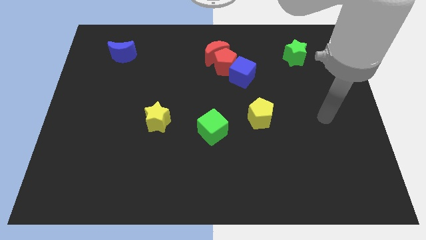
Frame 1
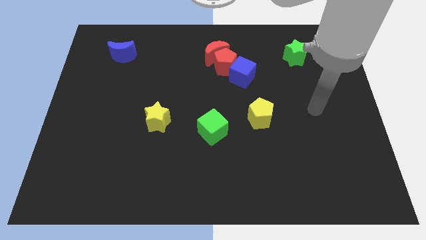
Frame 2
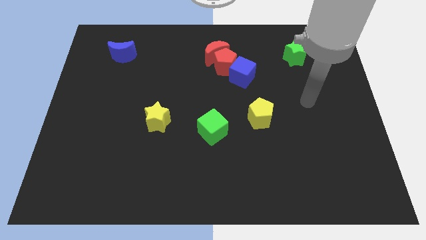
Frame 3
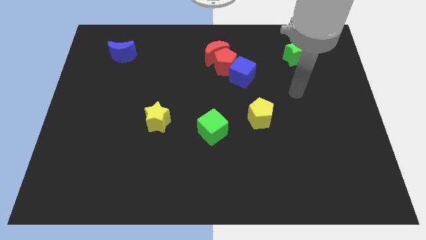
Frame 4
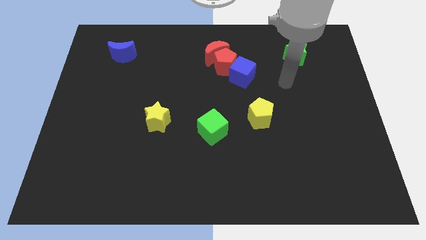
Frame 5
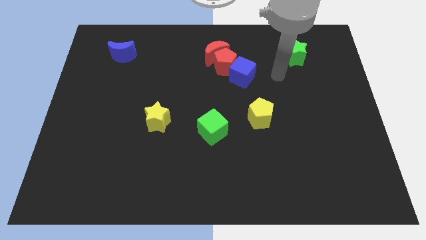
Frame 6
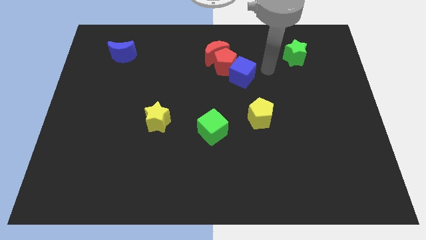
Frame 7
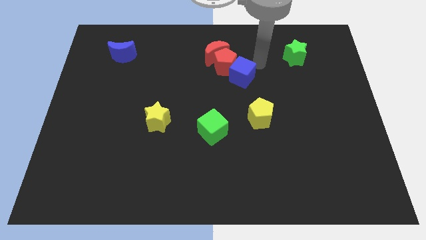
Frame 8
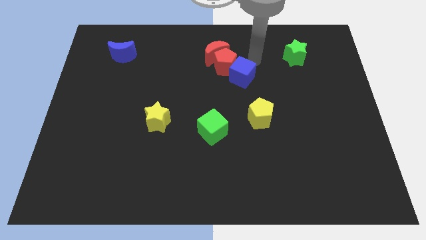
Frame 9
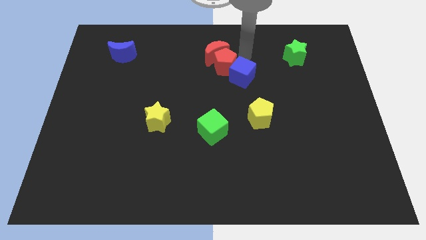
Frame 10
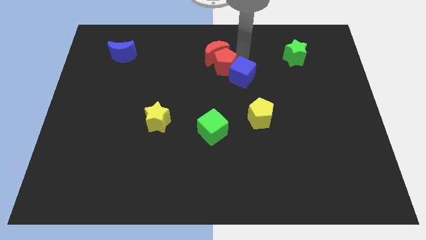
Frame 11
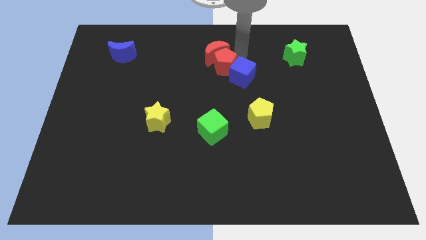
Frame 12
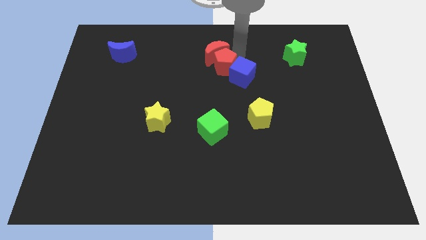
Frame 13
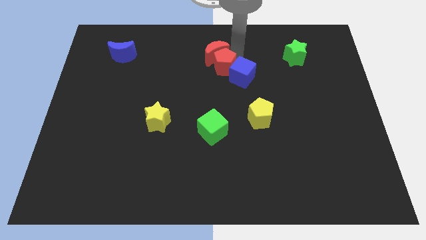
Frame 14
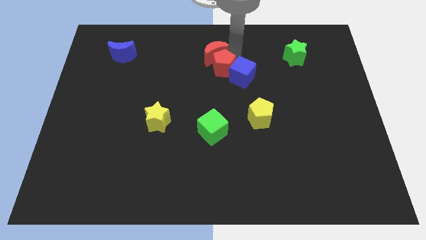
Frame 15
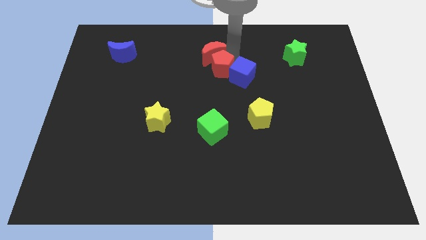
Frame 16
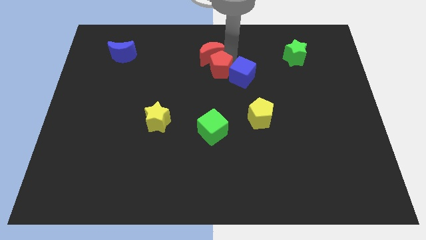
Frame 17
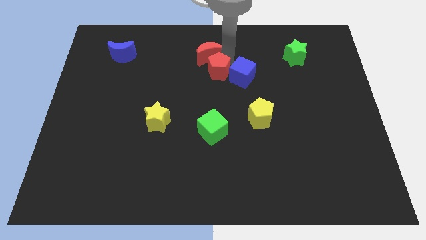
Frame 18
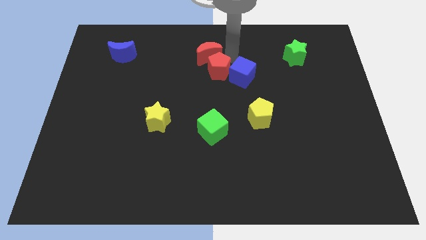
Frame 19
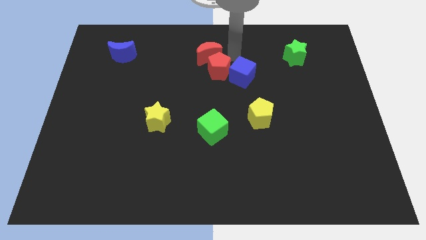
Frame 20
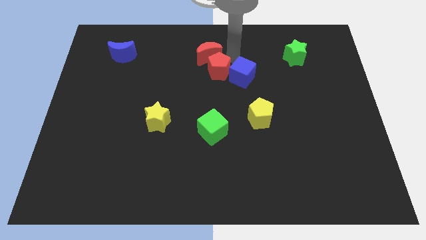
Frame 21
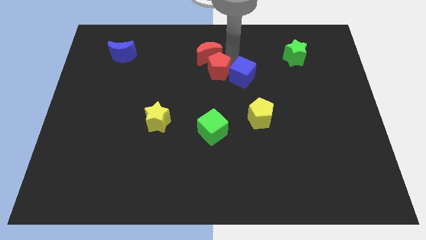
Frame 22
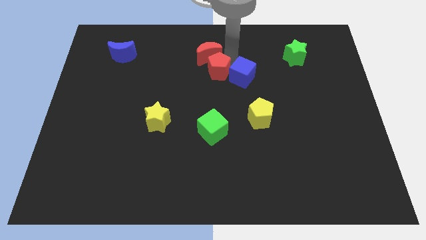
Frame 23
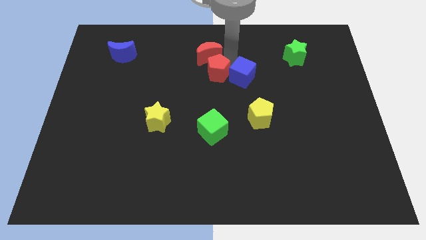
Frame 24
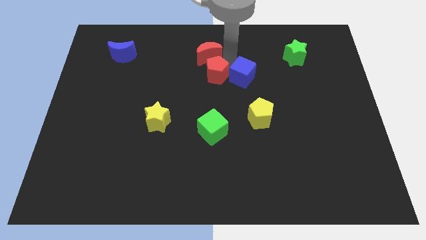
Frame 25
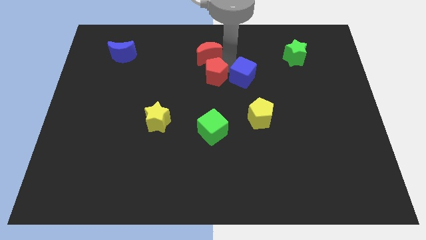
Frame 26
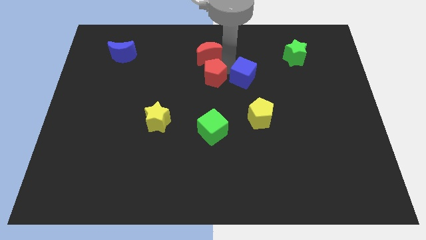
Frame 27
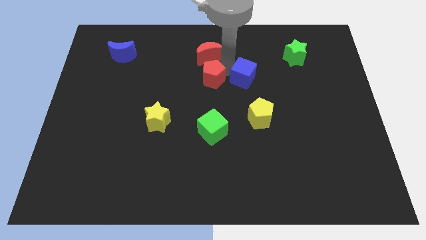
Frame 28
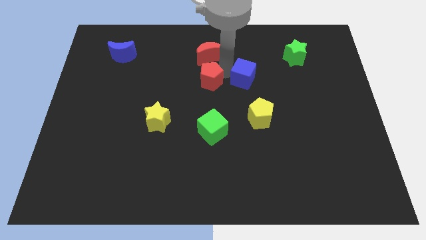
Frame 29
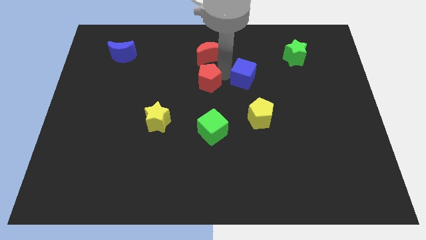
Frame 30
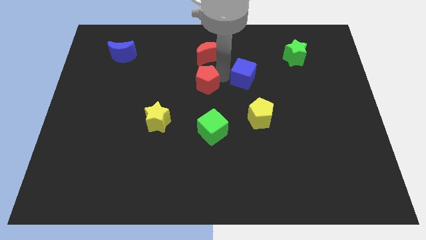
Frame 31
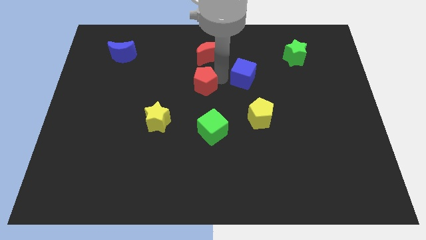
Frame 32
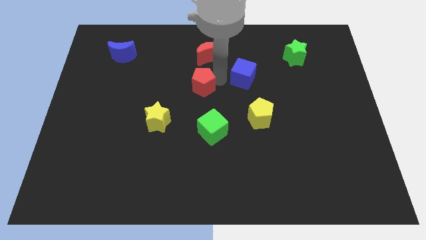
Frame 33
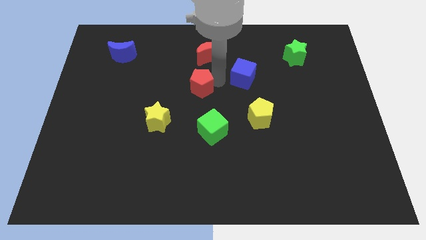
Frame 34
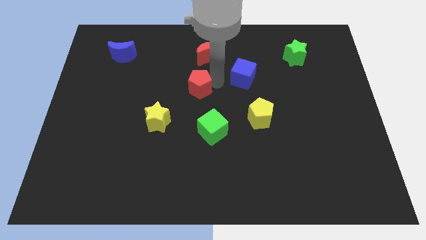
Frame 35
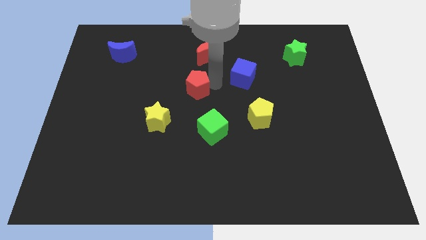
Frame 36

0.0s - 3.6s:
pull the red pentagon apart from the red moon and blue cube

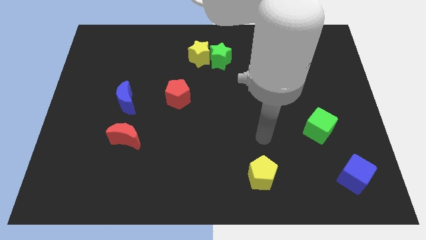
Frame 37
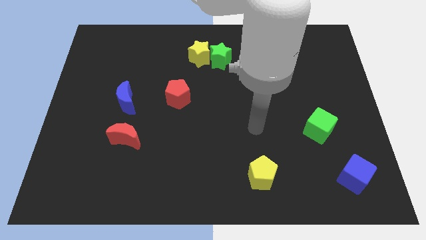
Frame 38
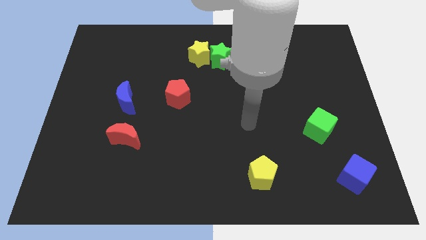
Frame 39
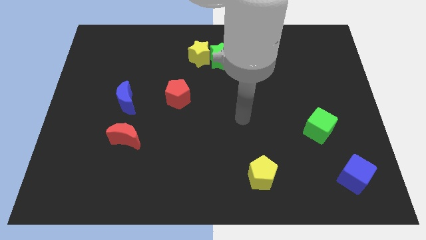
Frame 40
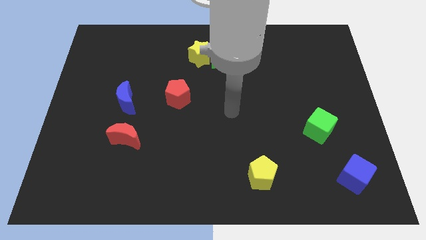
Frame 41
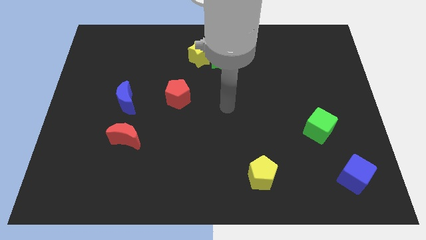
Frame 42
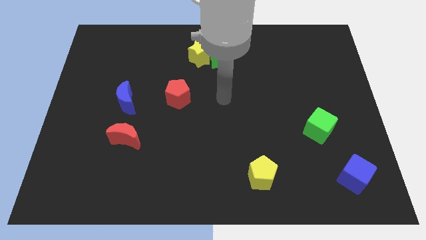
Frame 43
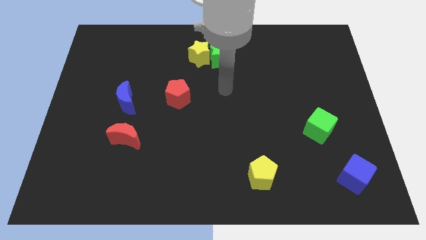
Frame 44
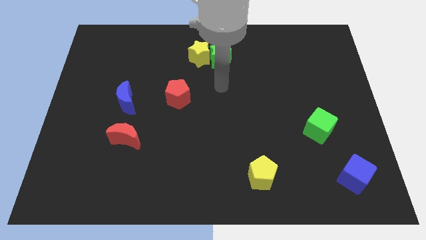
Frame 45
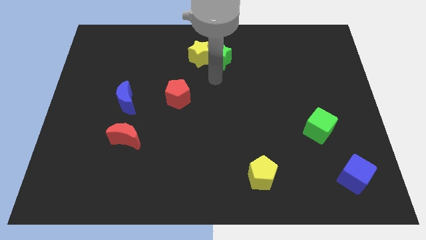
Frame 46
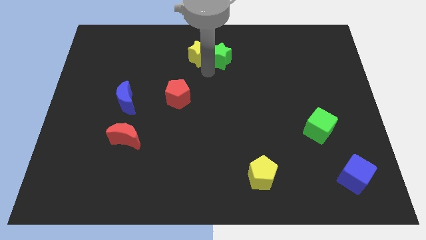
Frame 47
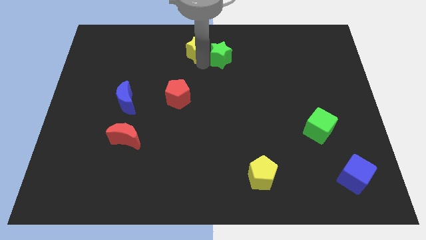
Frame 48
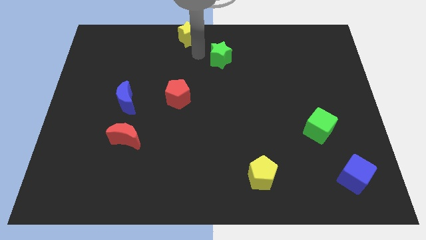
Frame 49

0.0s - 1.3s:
move the green star away from the yellow star

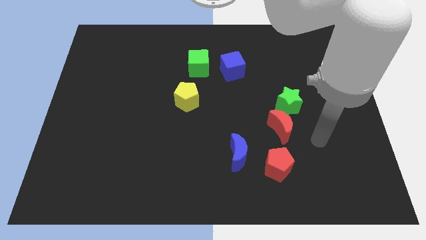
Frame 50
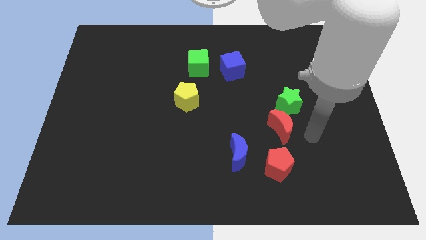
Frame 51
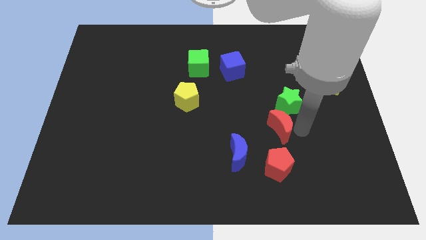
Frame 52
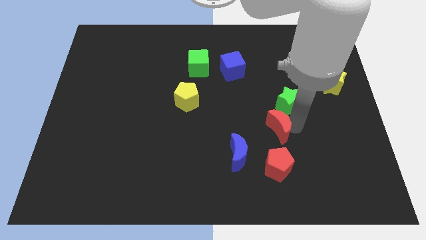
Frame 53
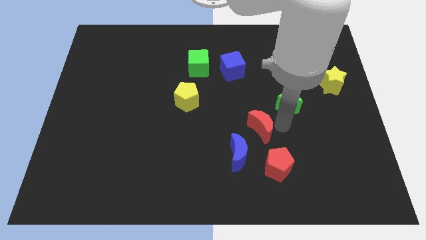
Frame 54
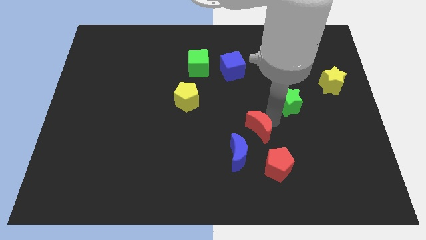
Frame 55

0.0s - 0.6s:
move the green star away from the red moon

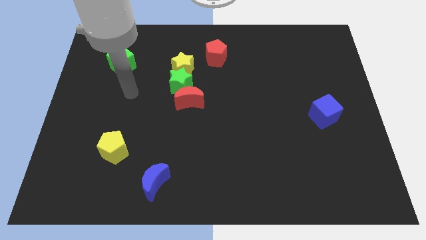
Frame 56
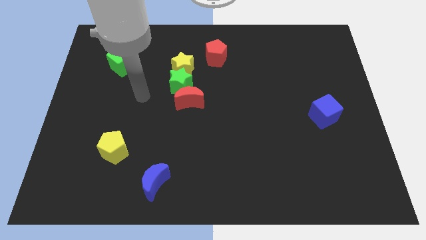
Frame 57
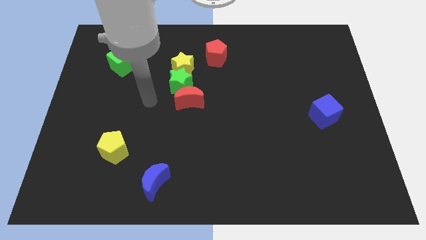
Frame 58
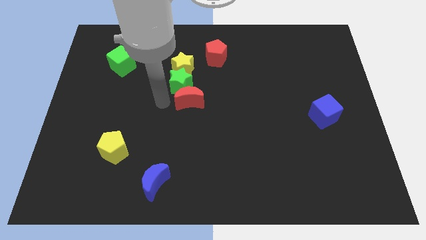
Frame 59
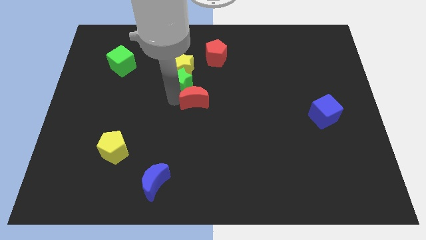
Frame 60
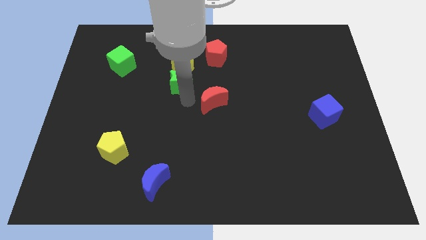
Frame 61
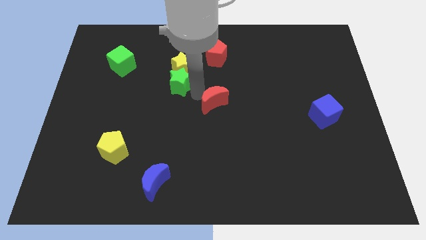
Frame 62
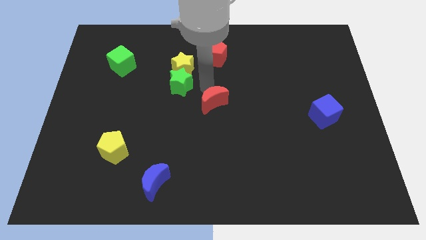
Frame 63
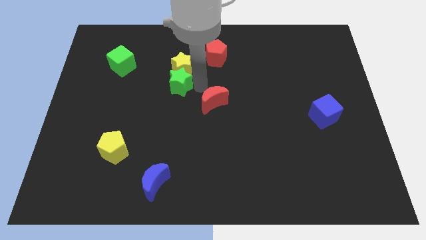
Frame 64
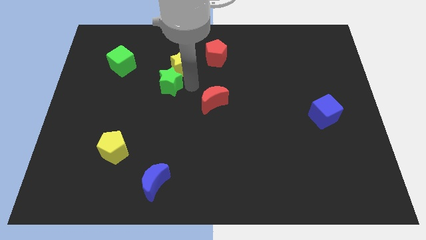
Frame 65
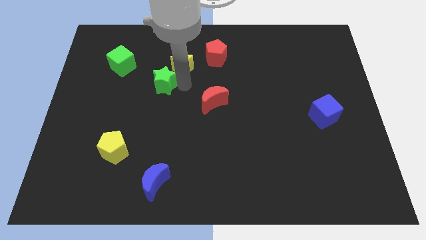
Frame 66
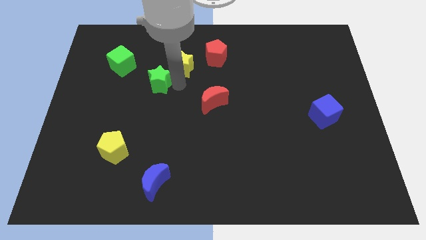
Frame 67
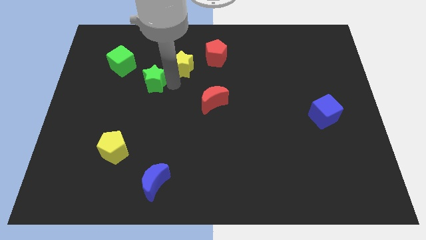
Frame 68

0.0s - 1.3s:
move the green star away from the yellow star and red moon

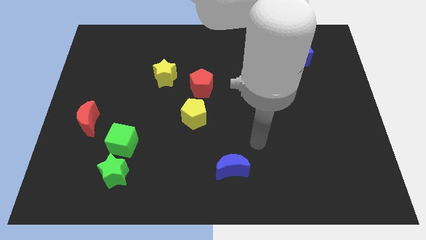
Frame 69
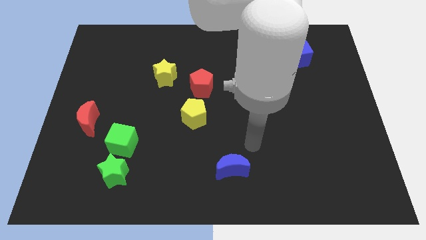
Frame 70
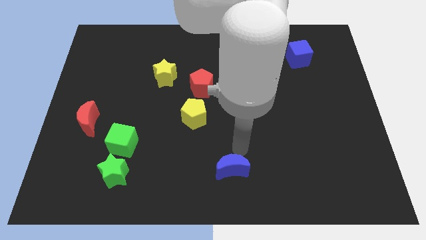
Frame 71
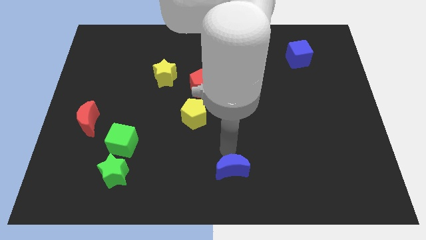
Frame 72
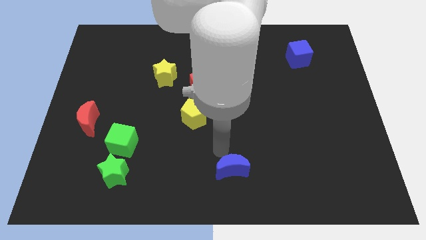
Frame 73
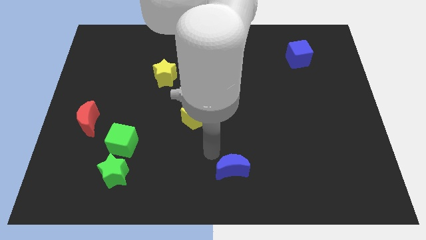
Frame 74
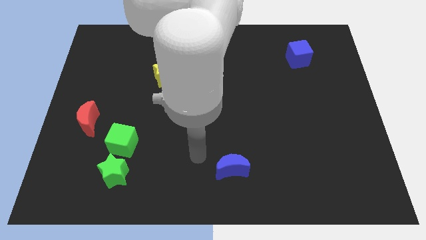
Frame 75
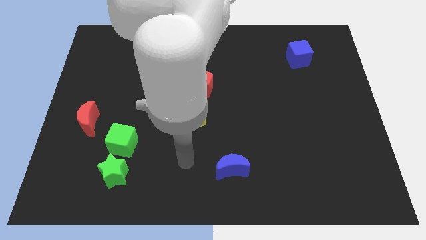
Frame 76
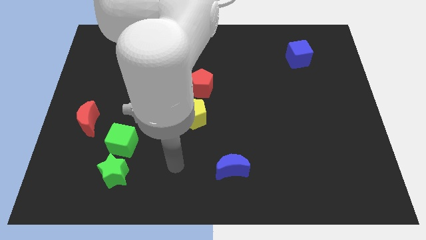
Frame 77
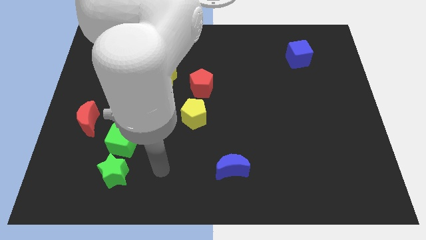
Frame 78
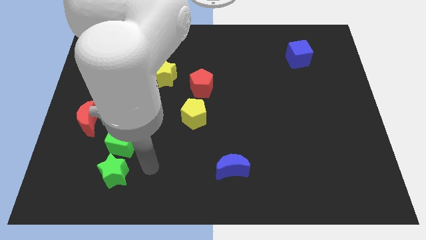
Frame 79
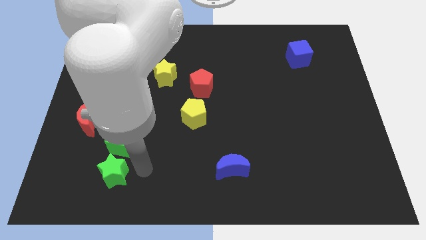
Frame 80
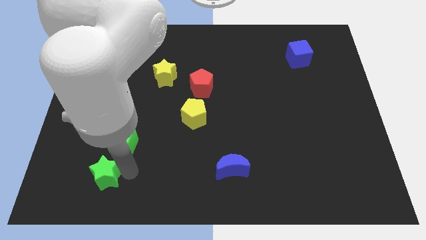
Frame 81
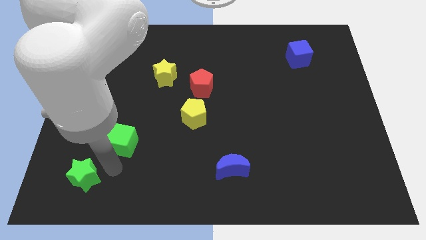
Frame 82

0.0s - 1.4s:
separate the green cube from the green star

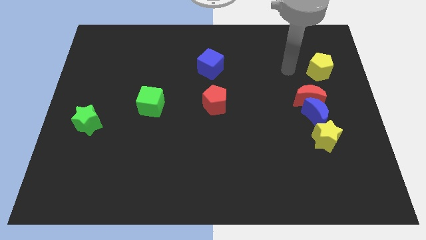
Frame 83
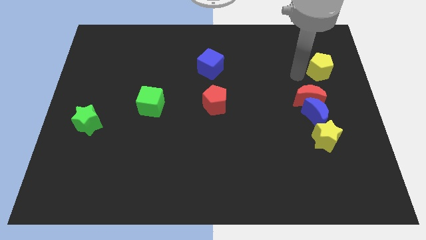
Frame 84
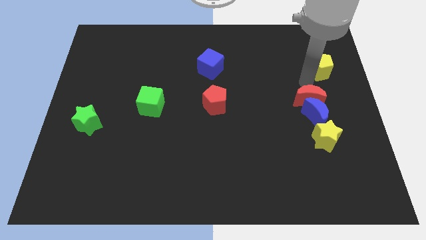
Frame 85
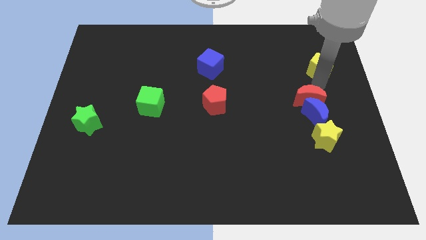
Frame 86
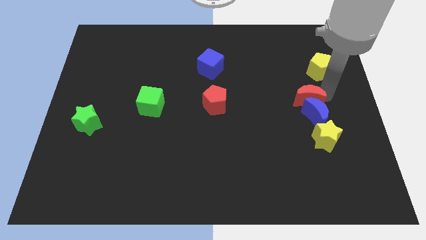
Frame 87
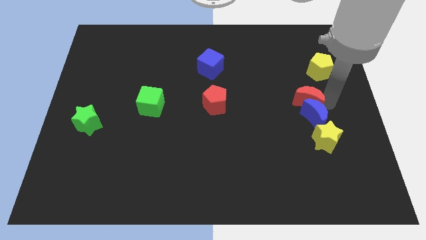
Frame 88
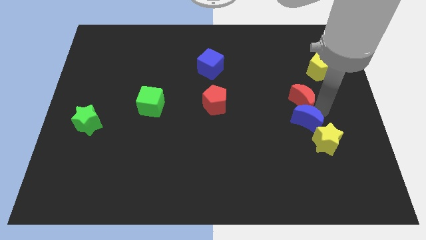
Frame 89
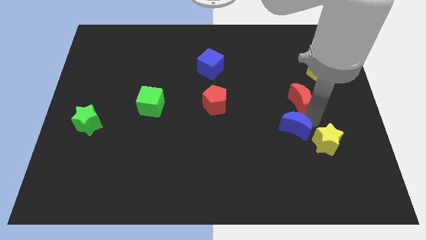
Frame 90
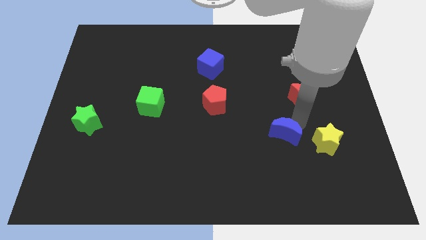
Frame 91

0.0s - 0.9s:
separate the red moon from the blue moon

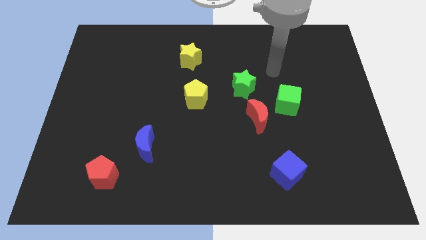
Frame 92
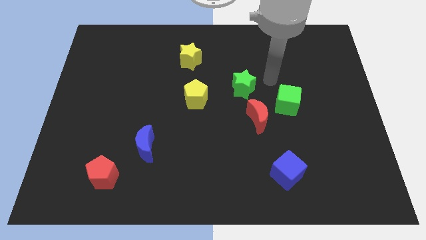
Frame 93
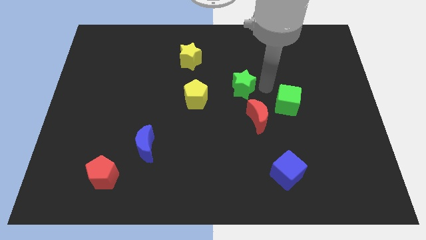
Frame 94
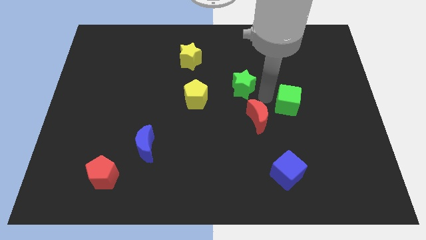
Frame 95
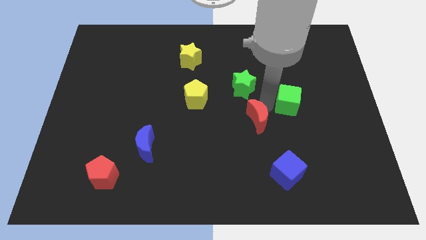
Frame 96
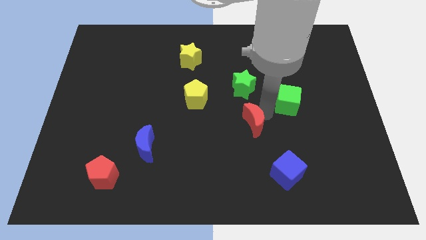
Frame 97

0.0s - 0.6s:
separate the green cube from the red moon
